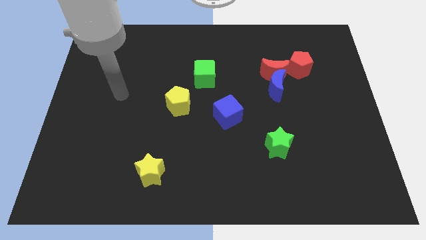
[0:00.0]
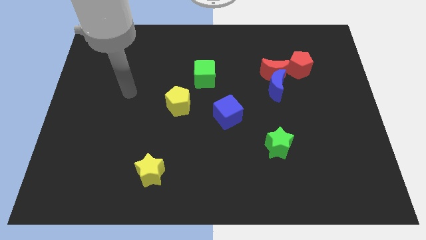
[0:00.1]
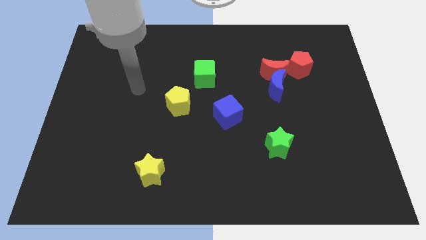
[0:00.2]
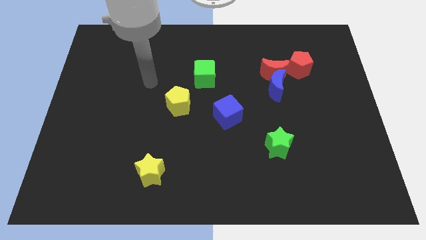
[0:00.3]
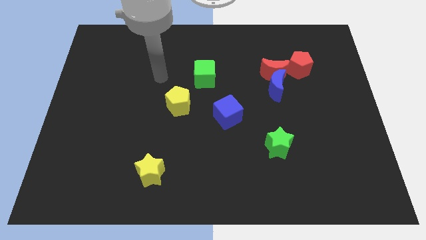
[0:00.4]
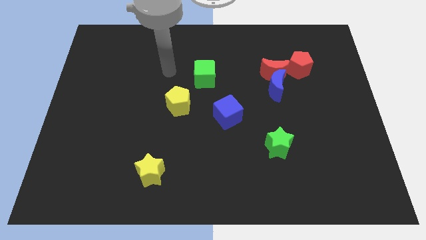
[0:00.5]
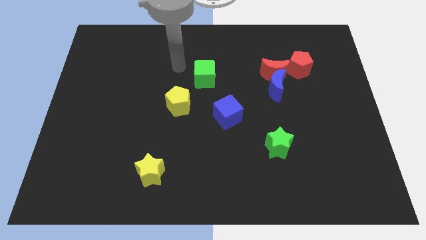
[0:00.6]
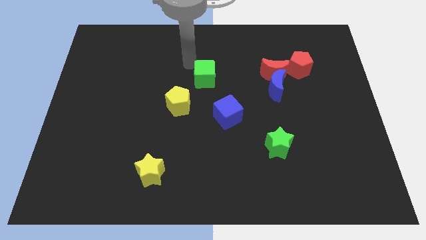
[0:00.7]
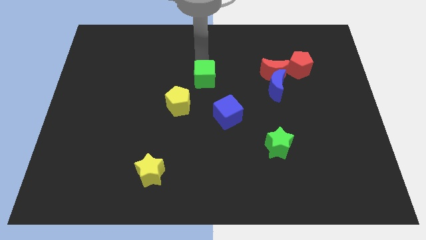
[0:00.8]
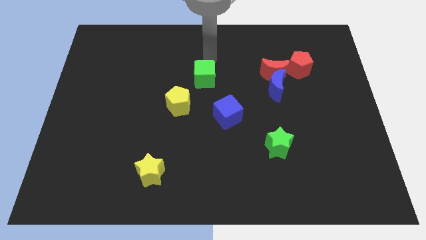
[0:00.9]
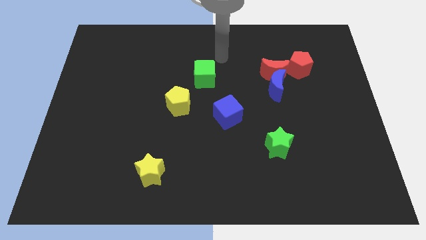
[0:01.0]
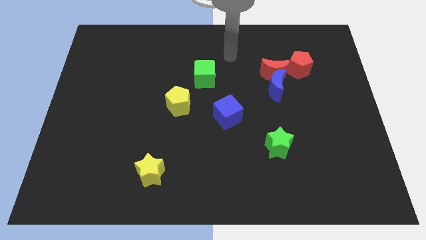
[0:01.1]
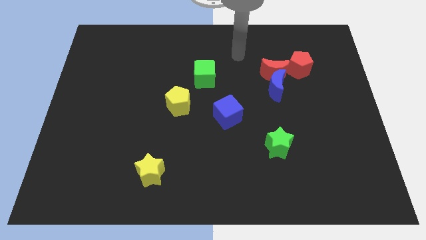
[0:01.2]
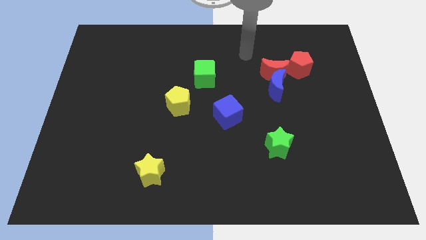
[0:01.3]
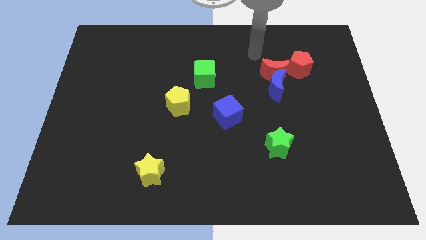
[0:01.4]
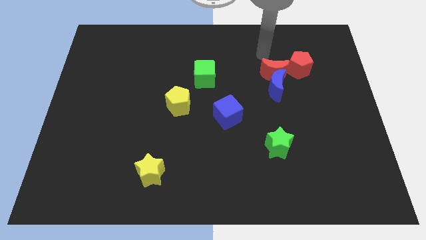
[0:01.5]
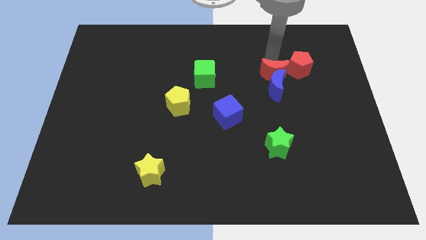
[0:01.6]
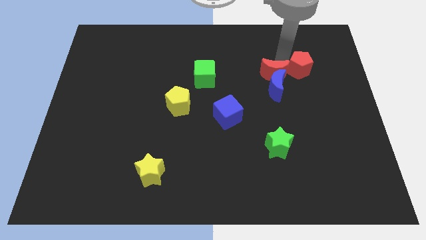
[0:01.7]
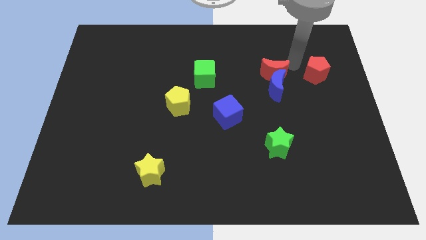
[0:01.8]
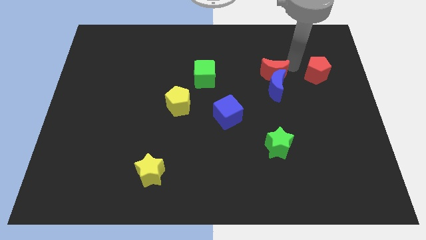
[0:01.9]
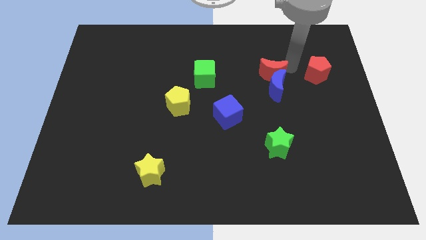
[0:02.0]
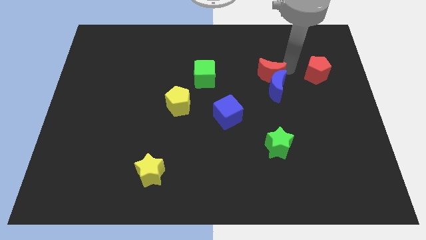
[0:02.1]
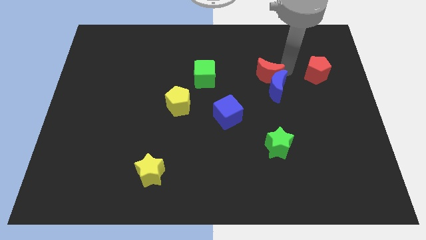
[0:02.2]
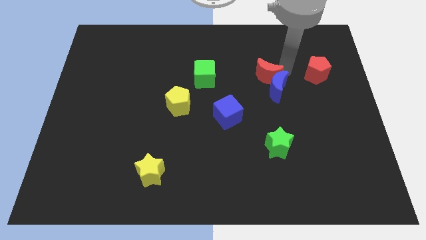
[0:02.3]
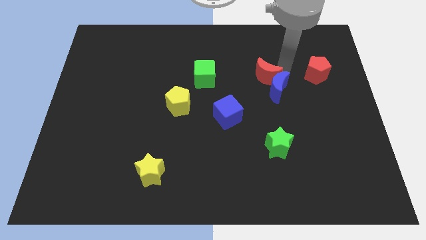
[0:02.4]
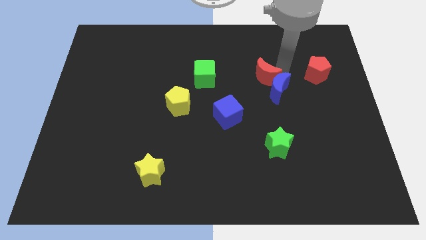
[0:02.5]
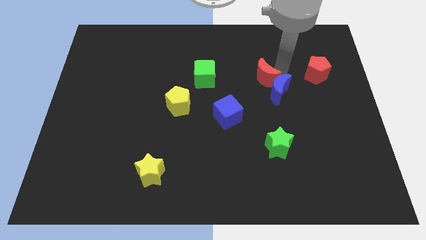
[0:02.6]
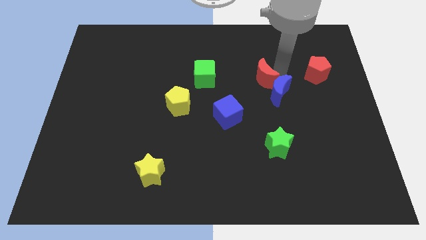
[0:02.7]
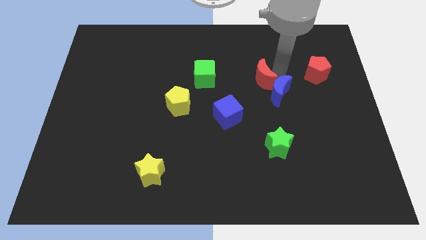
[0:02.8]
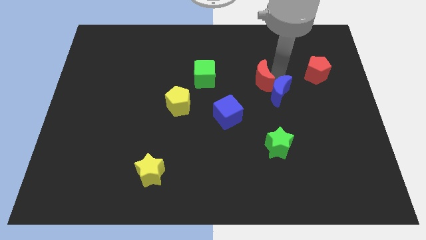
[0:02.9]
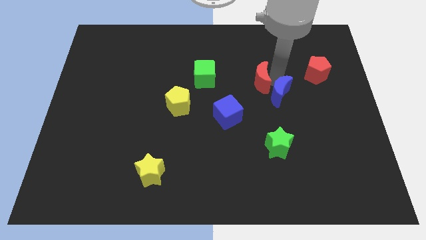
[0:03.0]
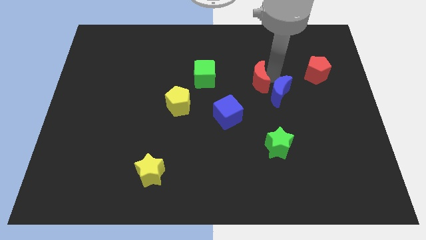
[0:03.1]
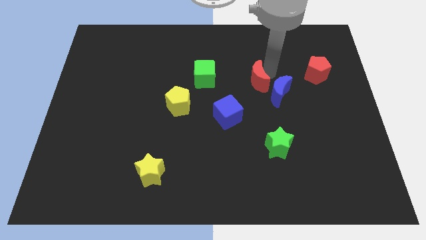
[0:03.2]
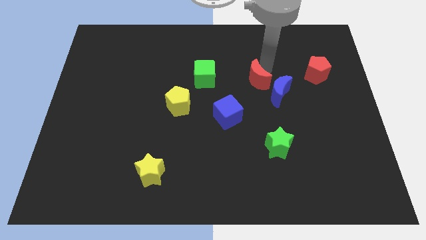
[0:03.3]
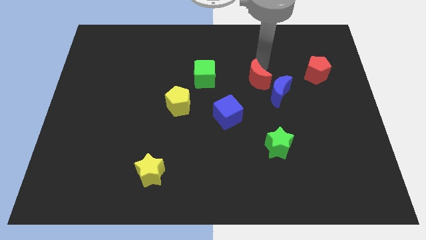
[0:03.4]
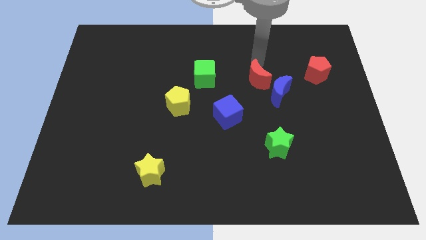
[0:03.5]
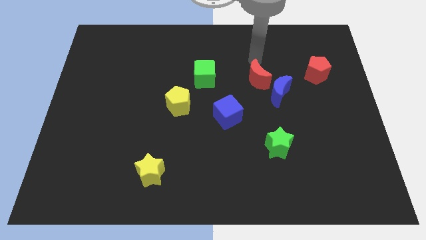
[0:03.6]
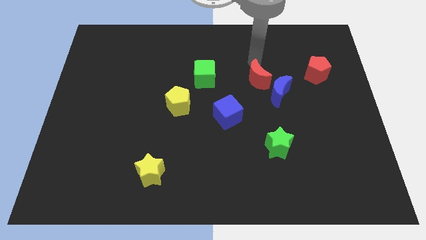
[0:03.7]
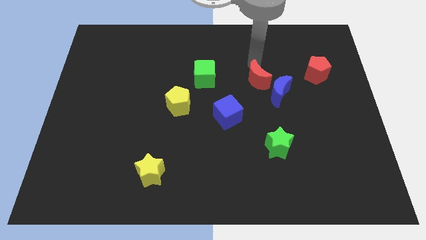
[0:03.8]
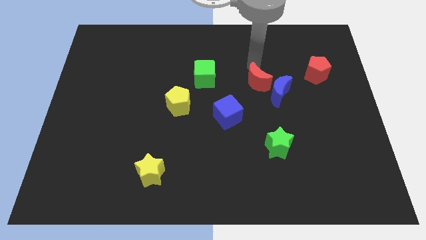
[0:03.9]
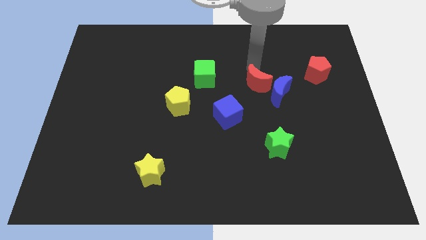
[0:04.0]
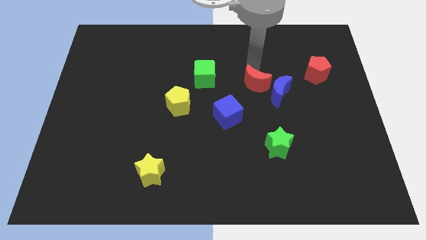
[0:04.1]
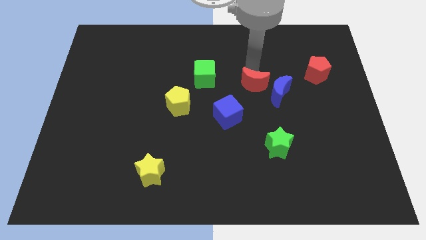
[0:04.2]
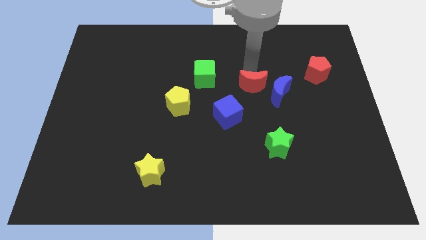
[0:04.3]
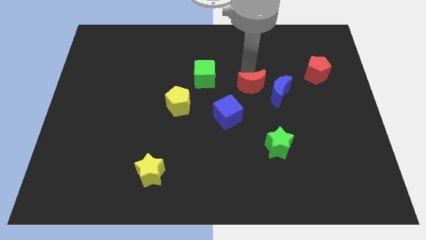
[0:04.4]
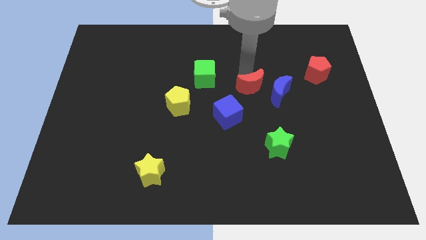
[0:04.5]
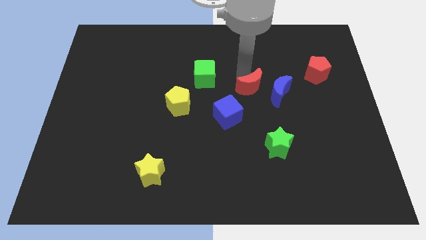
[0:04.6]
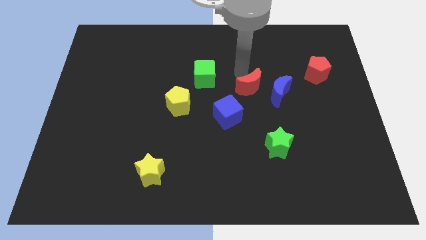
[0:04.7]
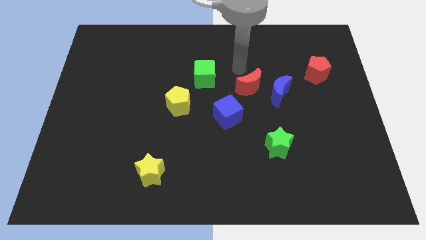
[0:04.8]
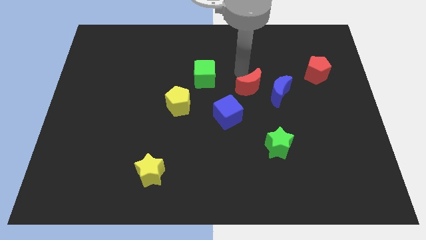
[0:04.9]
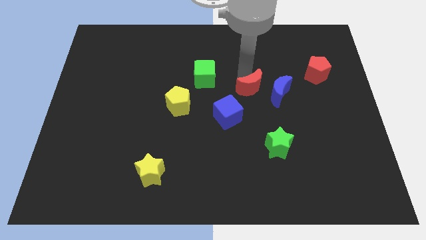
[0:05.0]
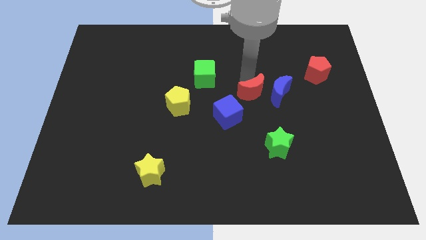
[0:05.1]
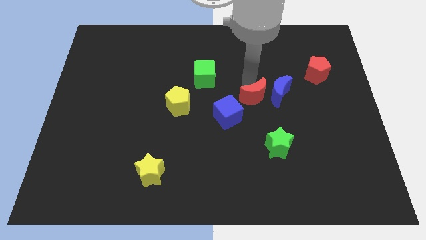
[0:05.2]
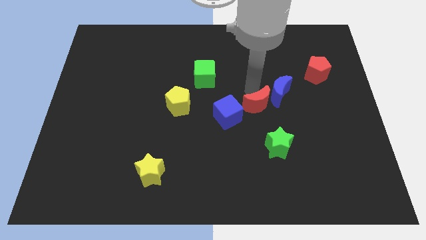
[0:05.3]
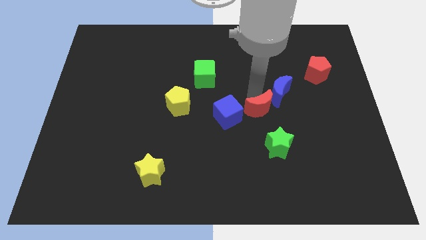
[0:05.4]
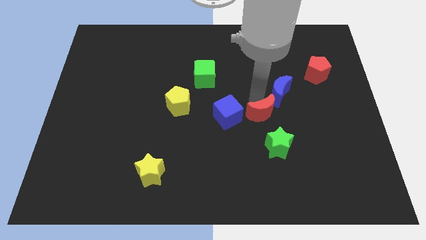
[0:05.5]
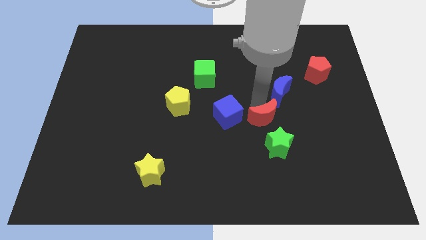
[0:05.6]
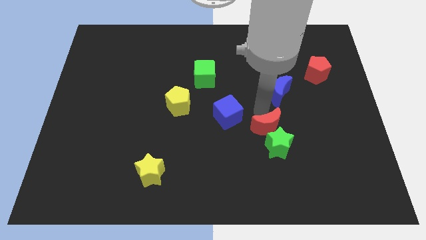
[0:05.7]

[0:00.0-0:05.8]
move the red moon towards the green star

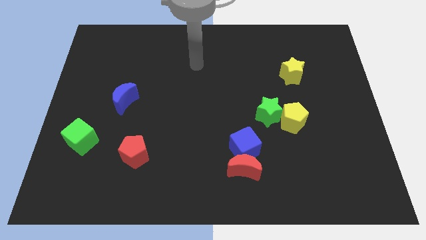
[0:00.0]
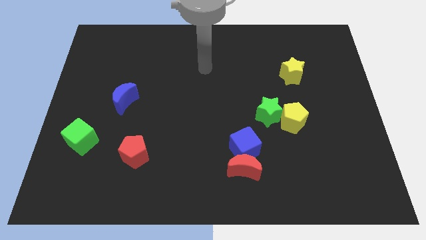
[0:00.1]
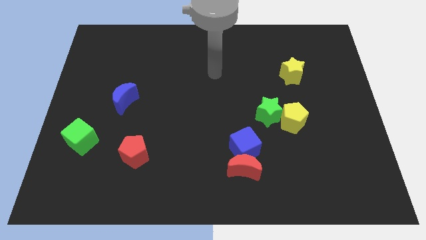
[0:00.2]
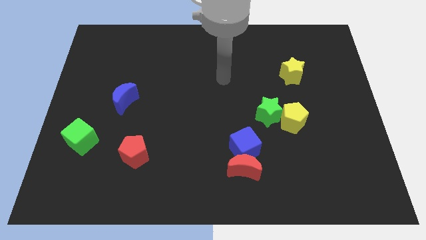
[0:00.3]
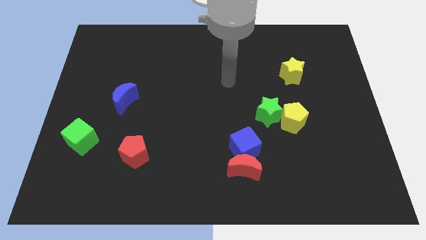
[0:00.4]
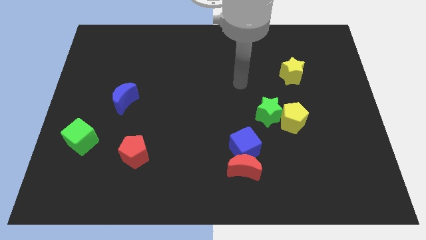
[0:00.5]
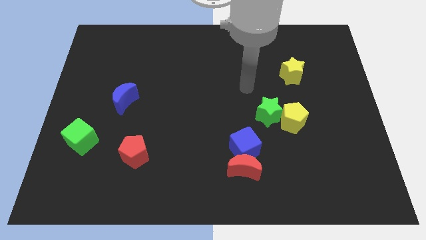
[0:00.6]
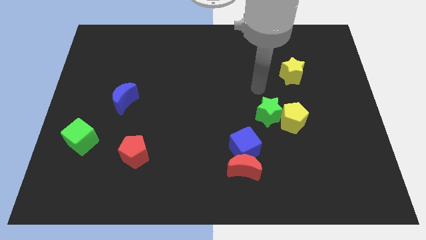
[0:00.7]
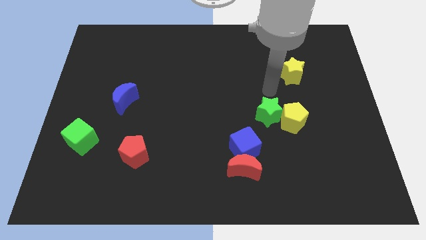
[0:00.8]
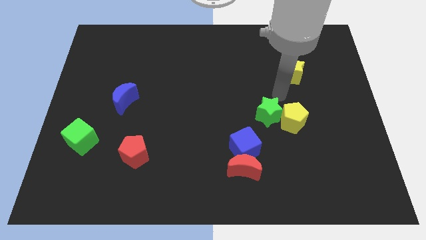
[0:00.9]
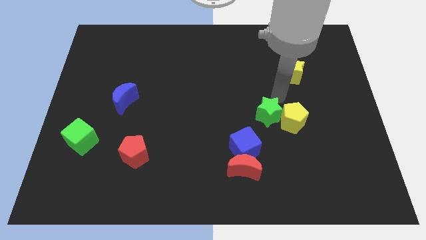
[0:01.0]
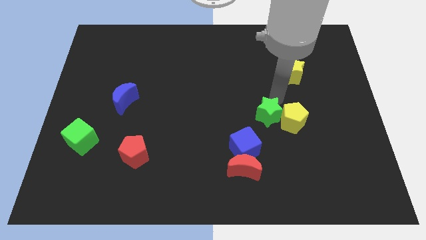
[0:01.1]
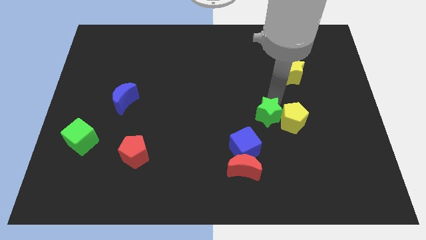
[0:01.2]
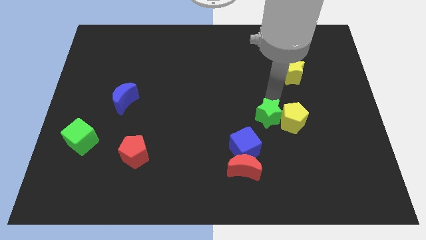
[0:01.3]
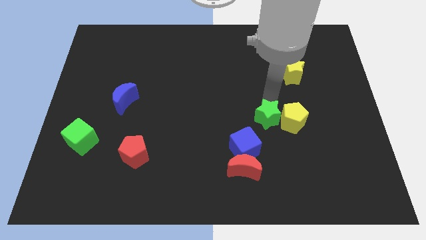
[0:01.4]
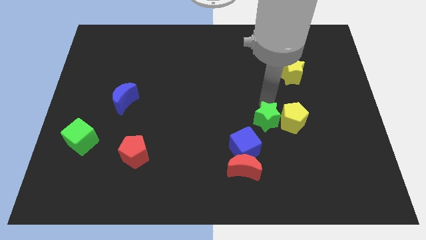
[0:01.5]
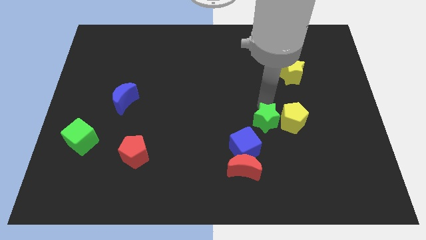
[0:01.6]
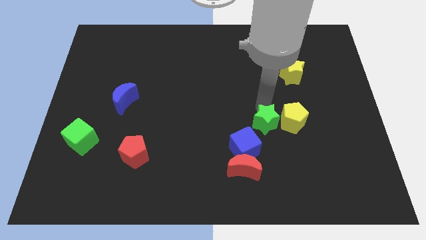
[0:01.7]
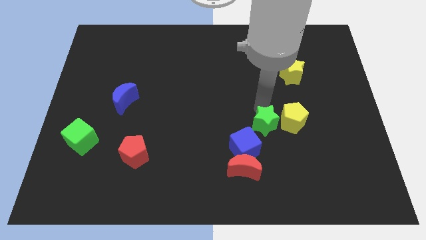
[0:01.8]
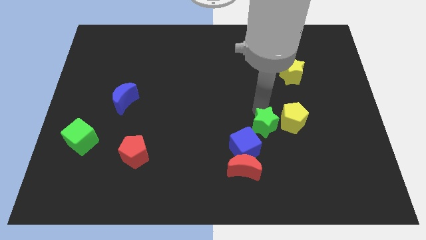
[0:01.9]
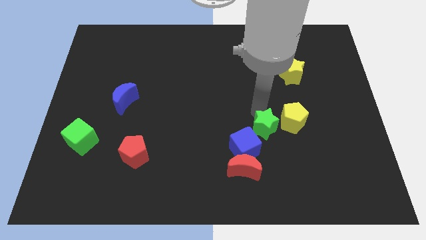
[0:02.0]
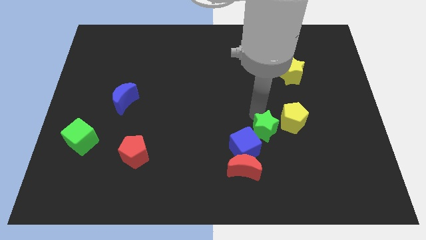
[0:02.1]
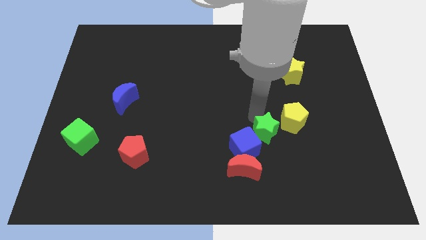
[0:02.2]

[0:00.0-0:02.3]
slide the green star close to the blue cube
